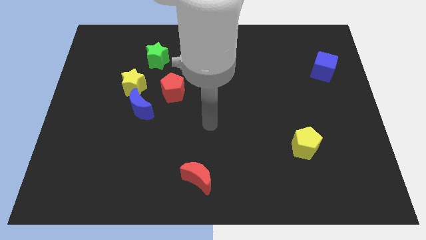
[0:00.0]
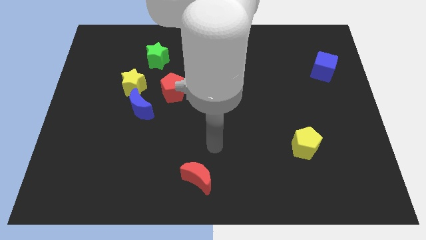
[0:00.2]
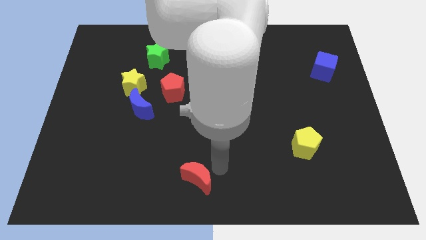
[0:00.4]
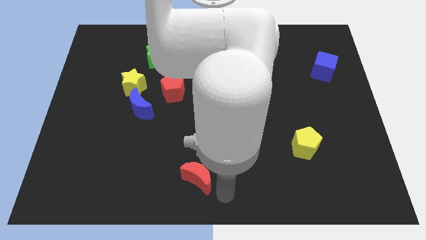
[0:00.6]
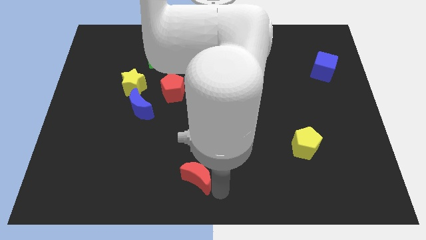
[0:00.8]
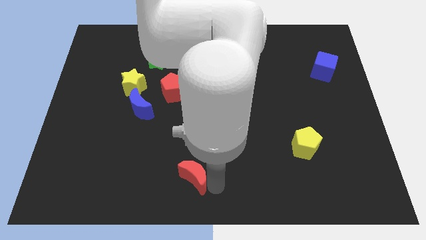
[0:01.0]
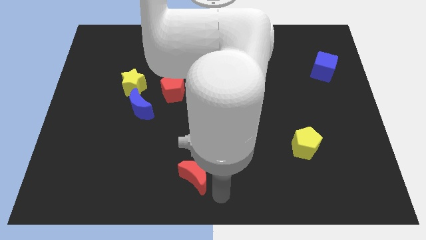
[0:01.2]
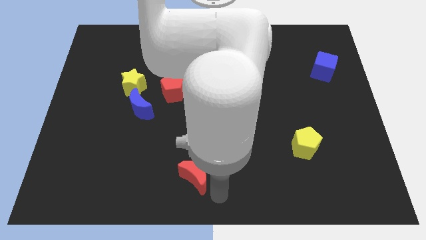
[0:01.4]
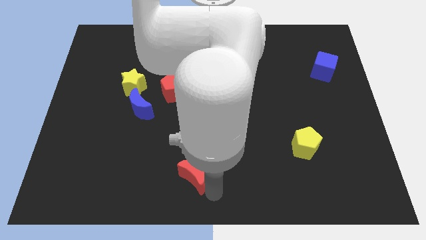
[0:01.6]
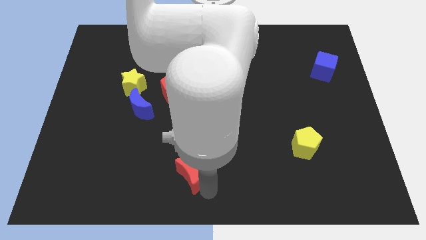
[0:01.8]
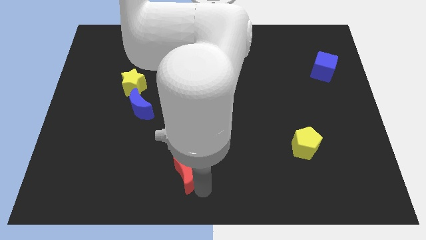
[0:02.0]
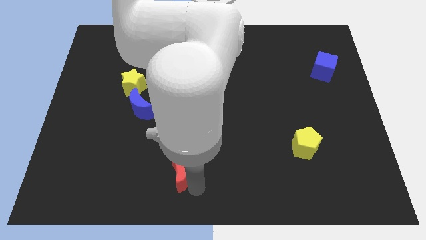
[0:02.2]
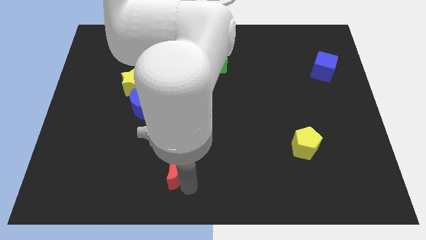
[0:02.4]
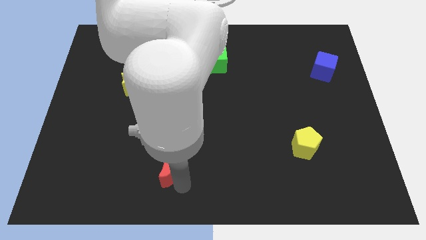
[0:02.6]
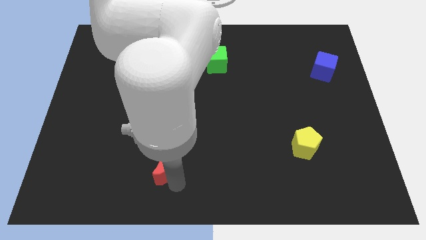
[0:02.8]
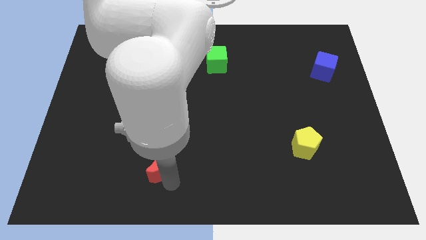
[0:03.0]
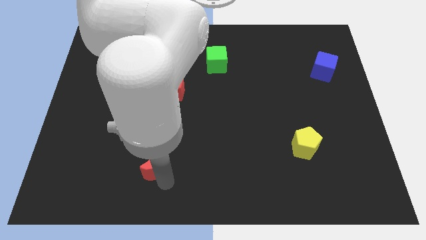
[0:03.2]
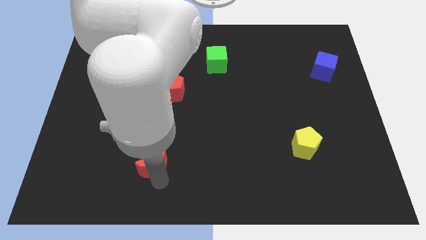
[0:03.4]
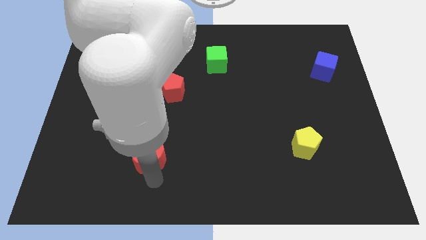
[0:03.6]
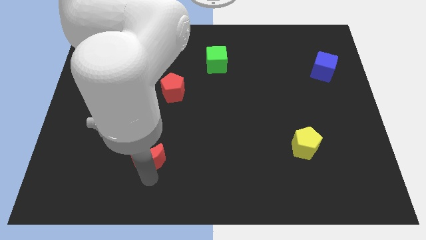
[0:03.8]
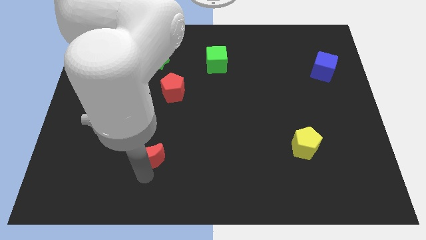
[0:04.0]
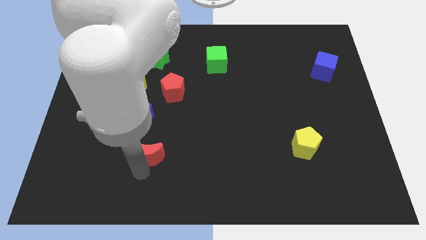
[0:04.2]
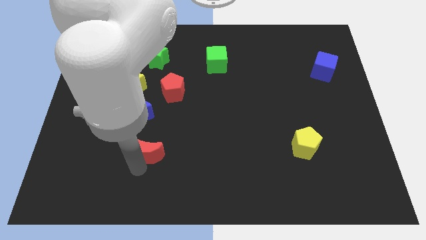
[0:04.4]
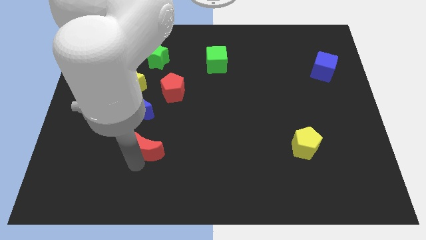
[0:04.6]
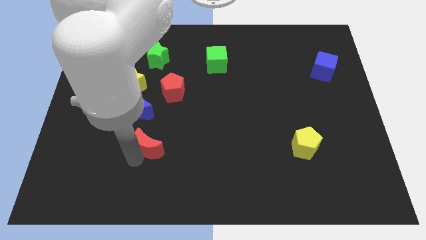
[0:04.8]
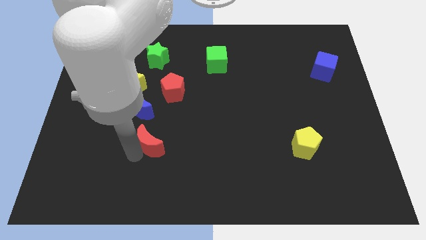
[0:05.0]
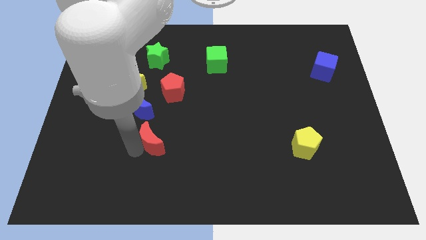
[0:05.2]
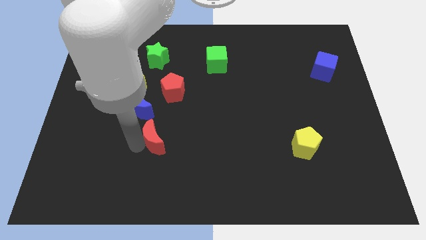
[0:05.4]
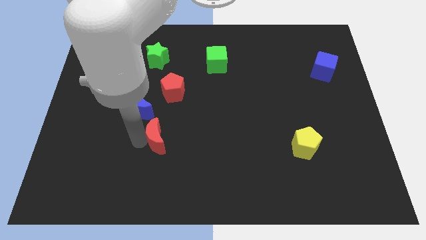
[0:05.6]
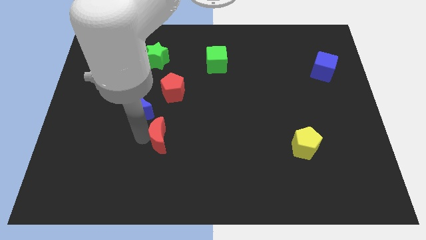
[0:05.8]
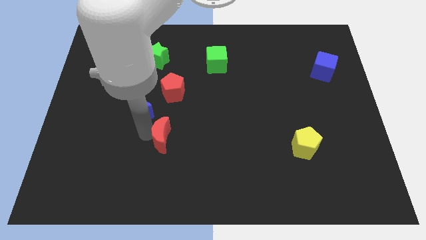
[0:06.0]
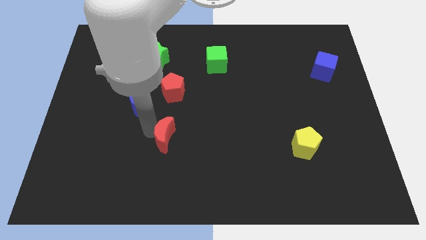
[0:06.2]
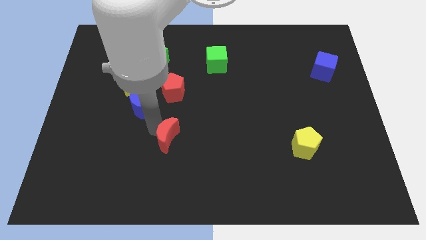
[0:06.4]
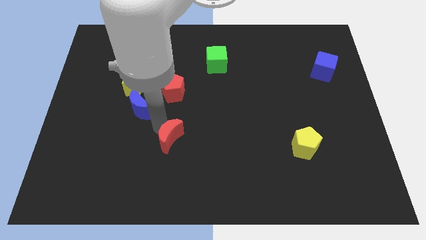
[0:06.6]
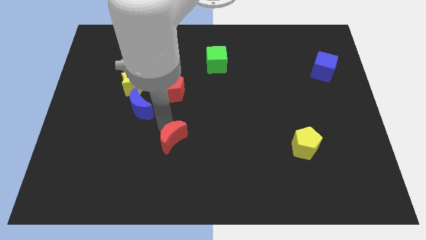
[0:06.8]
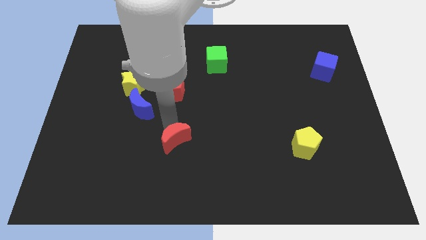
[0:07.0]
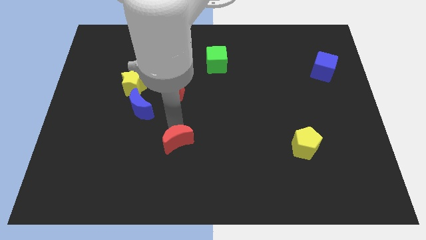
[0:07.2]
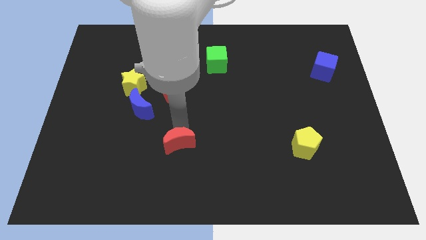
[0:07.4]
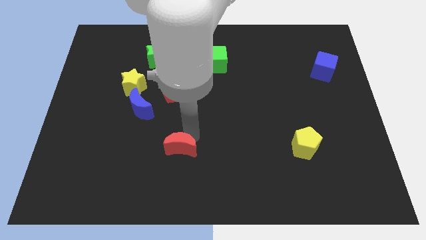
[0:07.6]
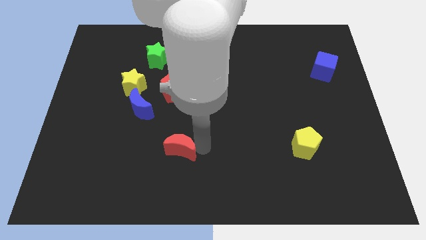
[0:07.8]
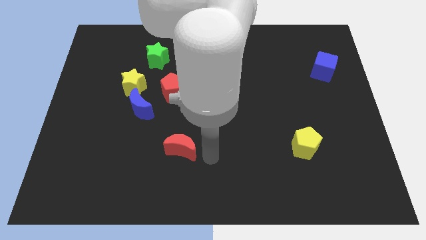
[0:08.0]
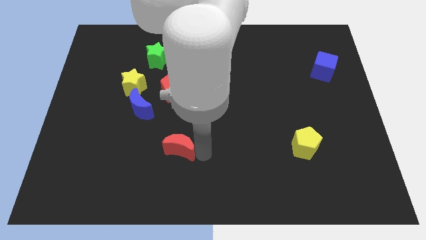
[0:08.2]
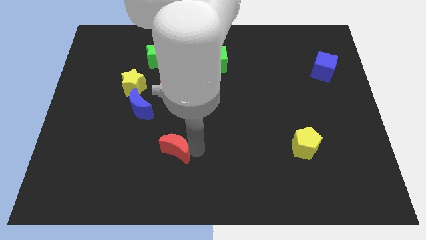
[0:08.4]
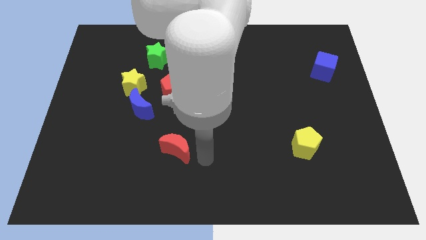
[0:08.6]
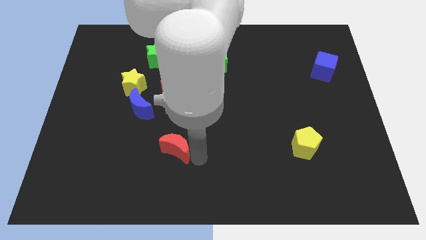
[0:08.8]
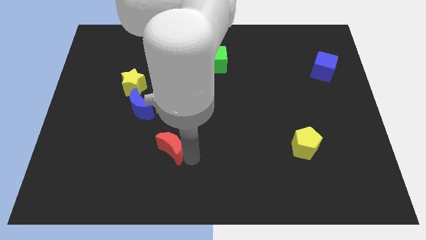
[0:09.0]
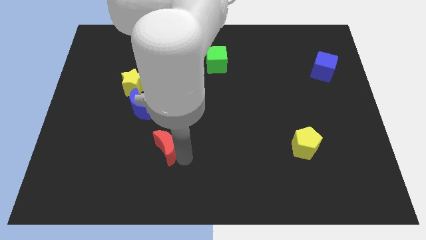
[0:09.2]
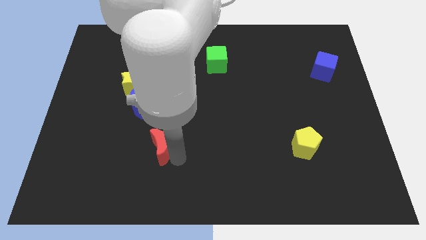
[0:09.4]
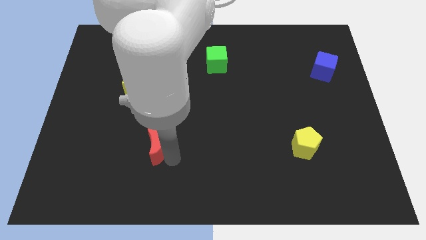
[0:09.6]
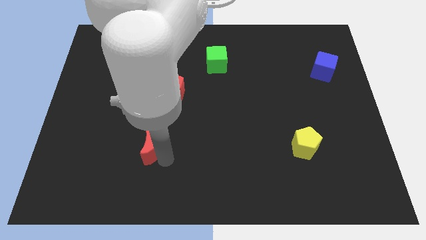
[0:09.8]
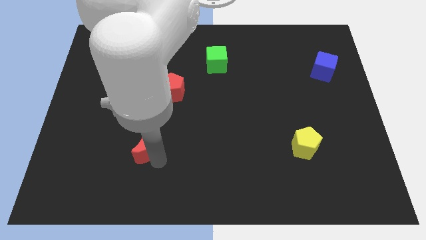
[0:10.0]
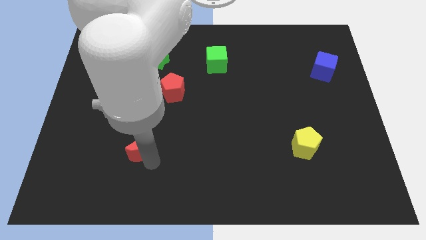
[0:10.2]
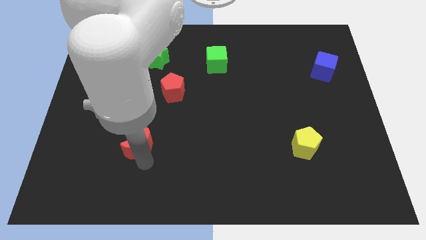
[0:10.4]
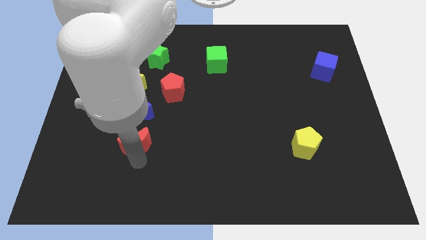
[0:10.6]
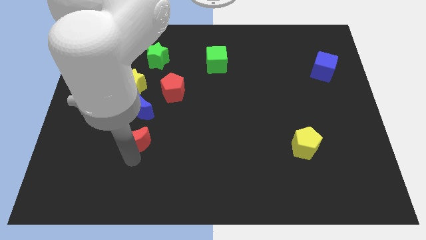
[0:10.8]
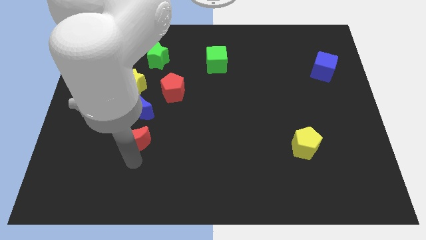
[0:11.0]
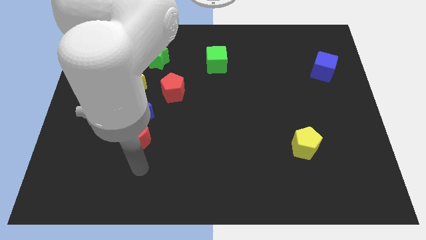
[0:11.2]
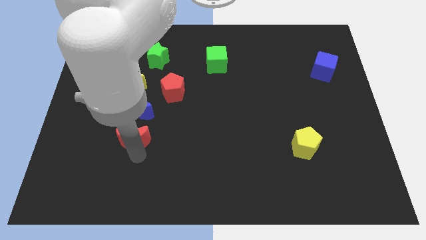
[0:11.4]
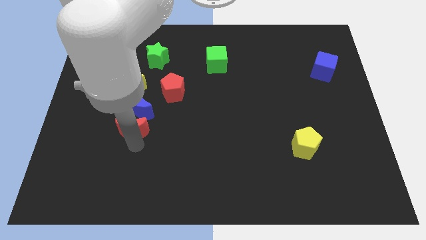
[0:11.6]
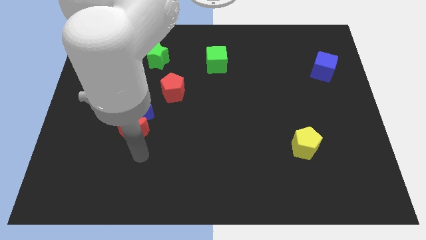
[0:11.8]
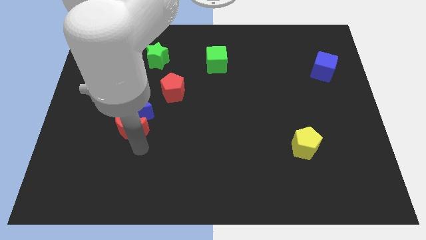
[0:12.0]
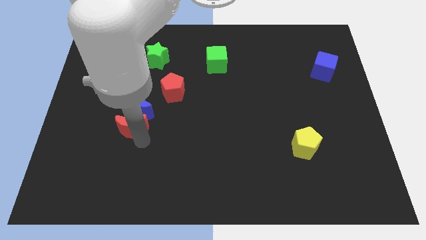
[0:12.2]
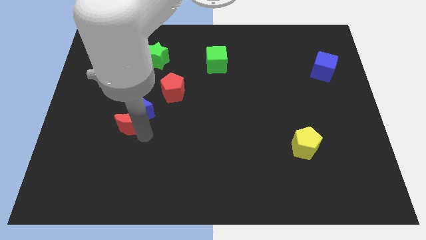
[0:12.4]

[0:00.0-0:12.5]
move the red moon diagonally up and left

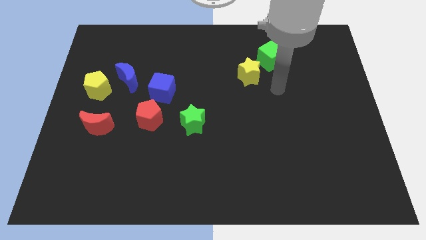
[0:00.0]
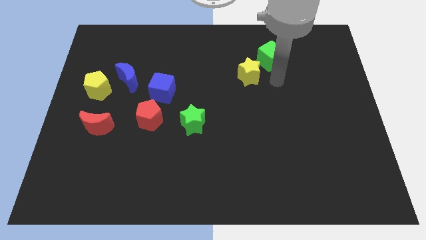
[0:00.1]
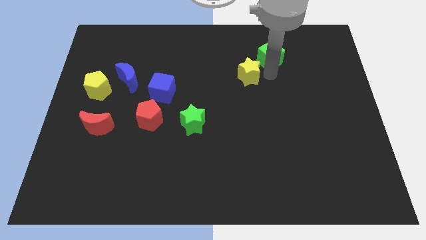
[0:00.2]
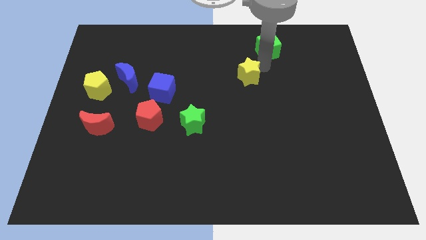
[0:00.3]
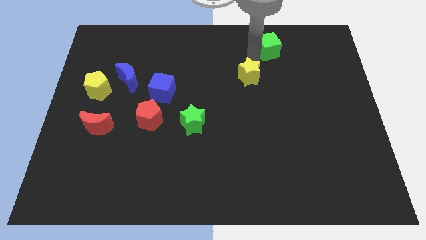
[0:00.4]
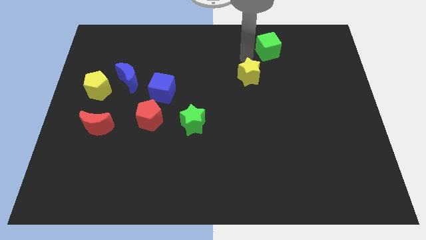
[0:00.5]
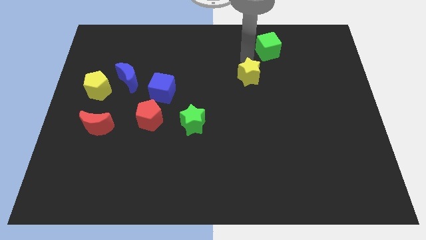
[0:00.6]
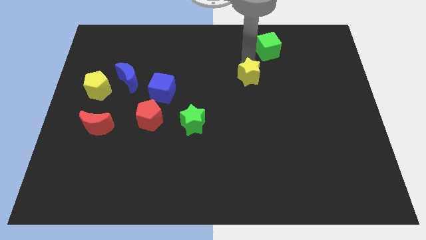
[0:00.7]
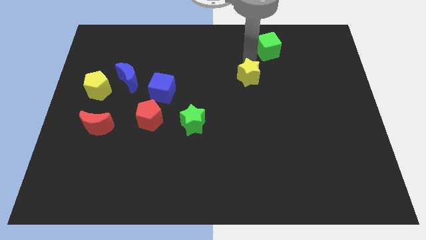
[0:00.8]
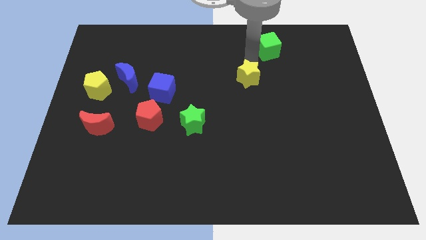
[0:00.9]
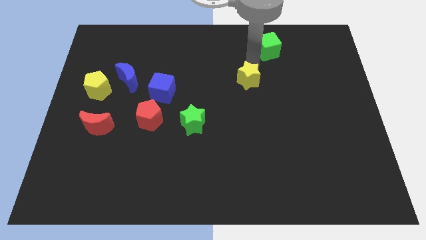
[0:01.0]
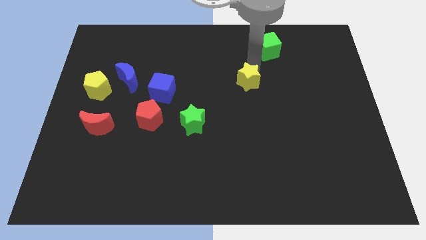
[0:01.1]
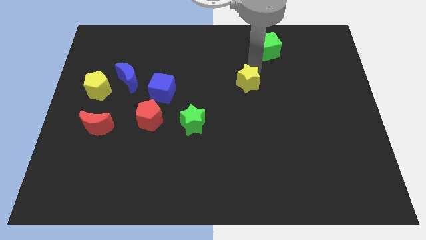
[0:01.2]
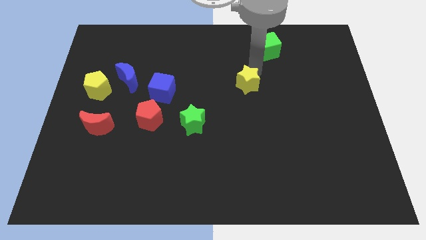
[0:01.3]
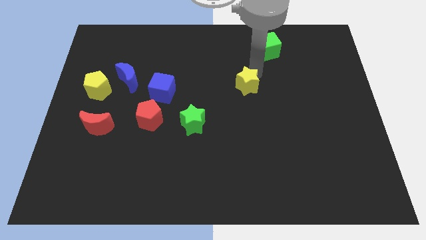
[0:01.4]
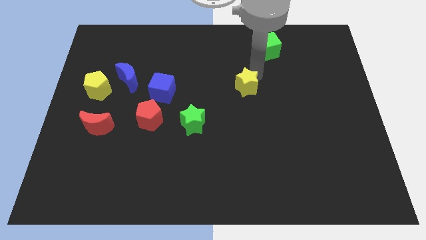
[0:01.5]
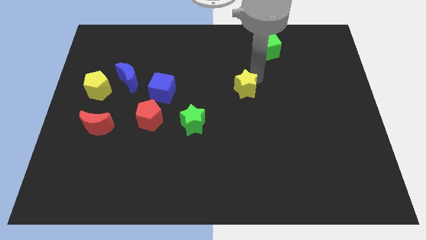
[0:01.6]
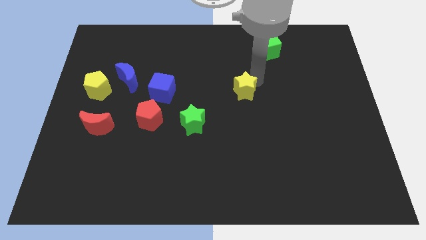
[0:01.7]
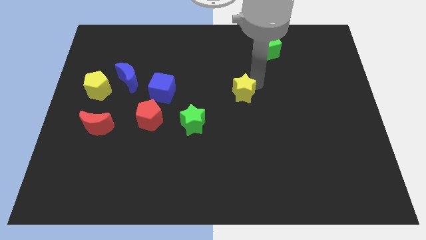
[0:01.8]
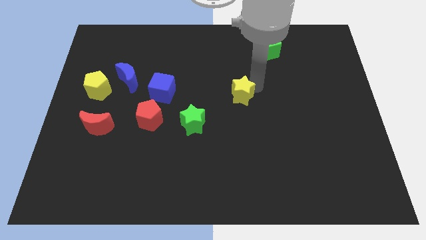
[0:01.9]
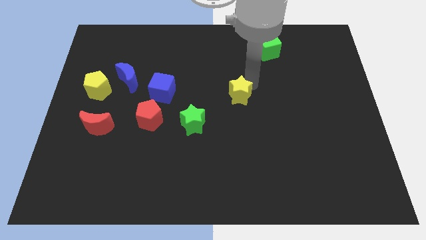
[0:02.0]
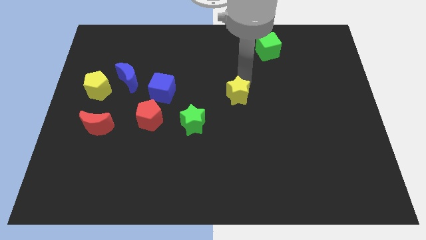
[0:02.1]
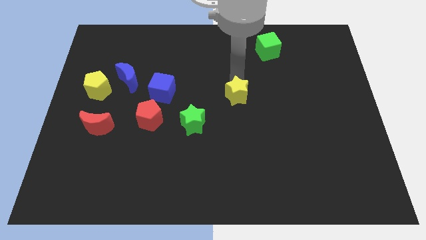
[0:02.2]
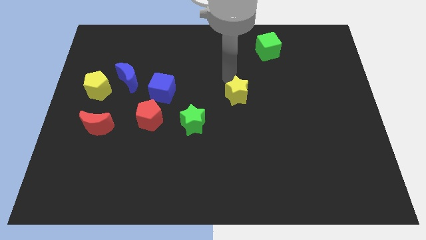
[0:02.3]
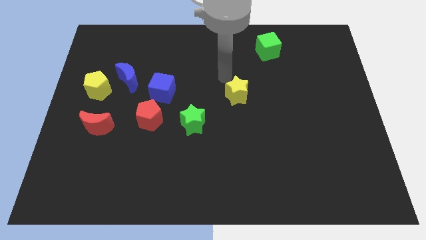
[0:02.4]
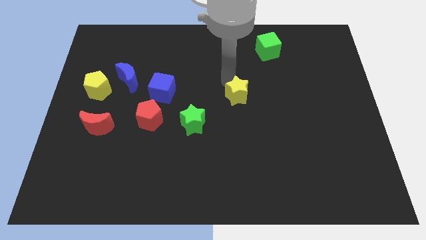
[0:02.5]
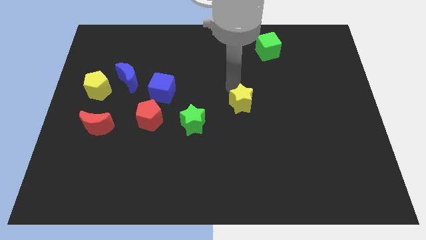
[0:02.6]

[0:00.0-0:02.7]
slightly slide the yellow star down
